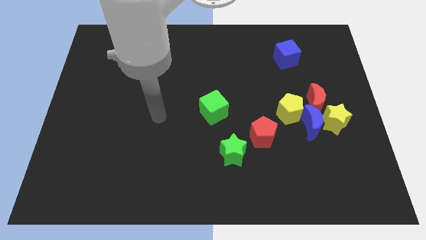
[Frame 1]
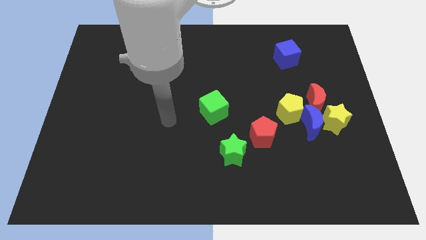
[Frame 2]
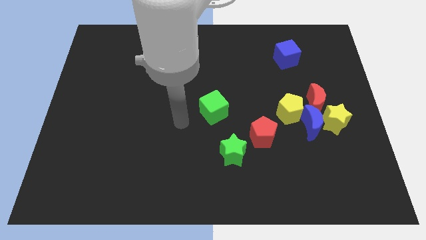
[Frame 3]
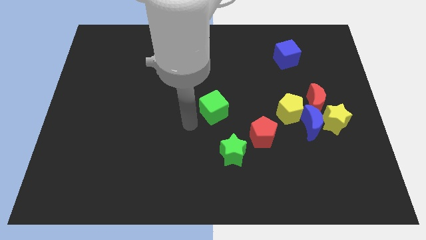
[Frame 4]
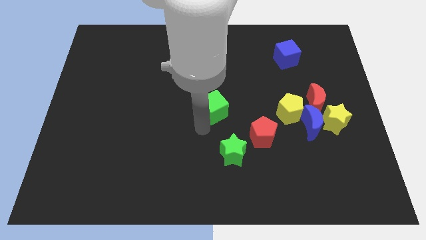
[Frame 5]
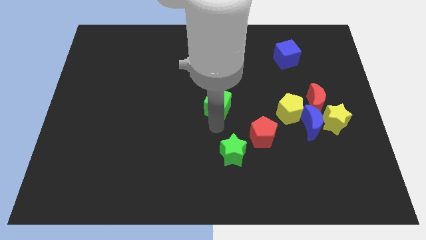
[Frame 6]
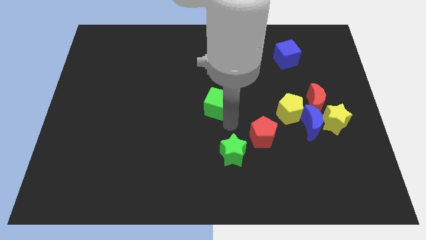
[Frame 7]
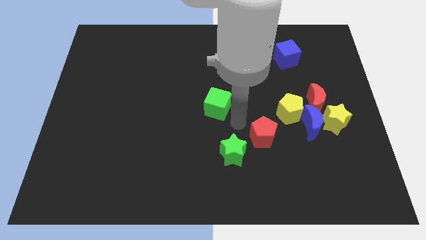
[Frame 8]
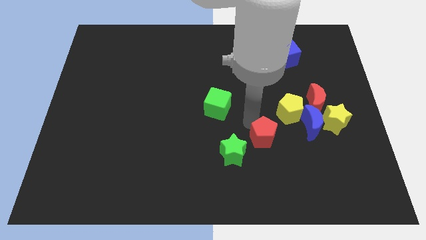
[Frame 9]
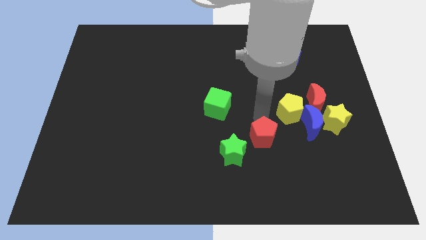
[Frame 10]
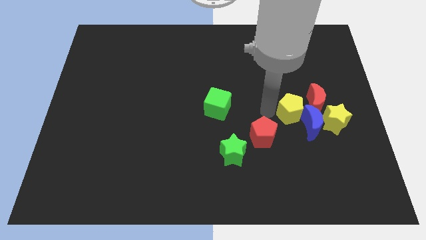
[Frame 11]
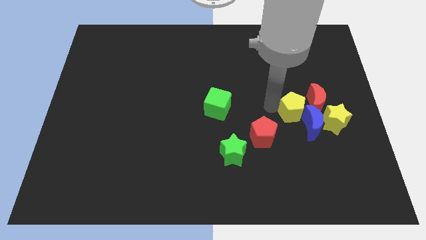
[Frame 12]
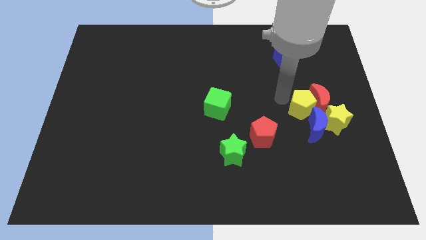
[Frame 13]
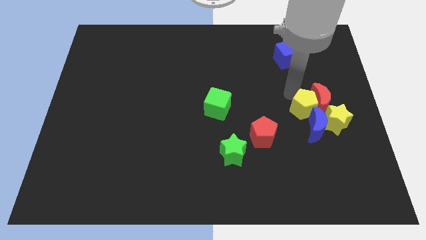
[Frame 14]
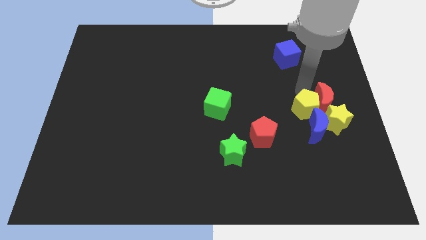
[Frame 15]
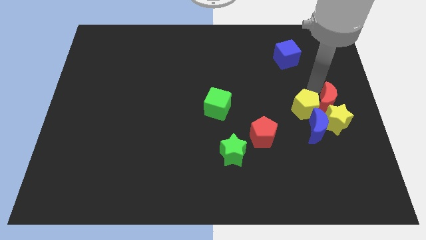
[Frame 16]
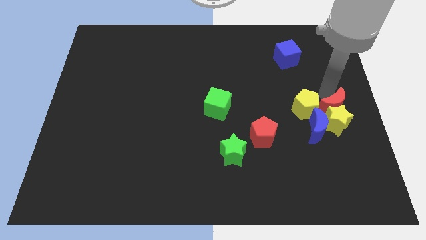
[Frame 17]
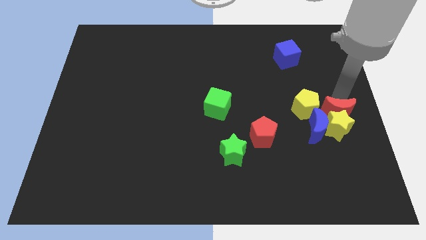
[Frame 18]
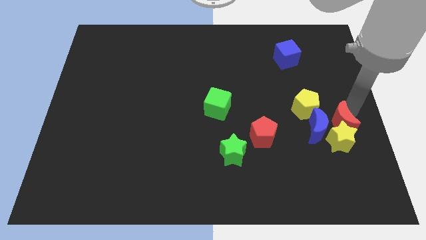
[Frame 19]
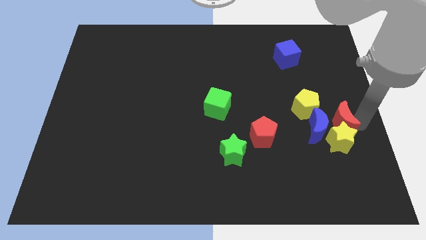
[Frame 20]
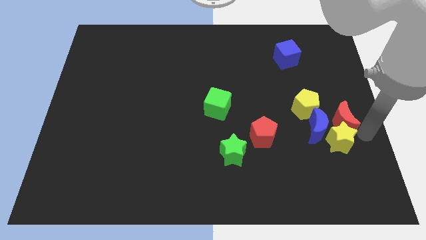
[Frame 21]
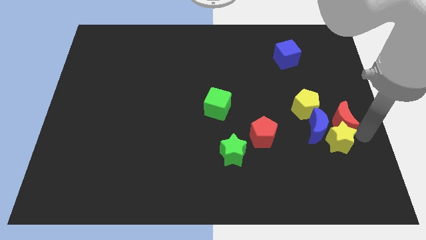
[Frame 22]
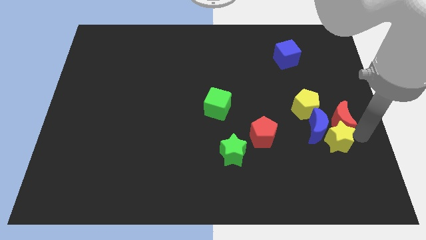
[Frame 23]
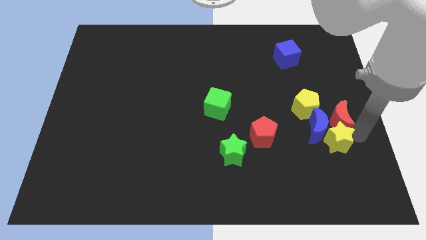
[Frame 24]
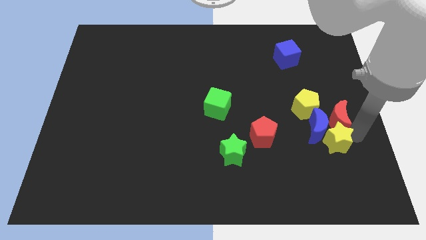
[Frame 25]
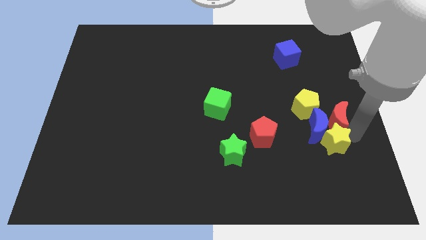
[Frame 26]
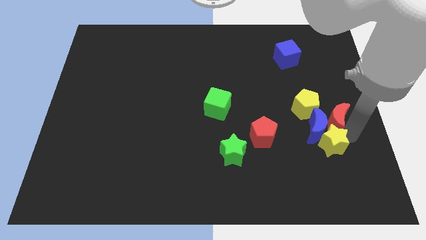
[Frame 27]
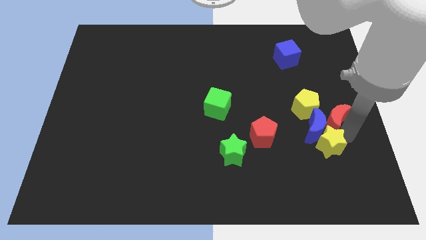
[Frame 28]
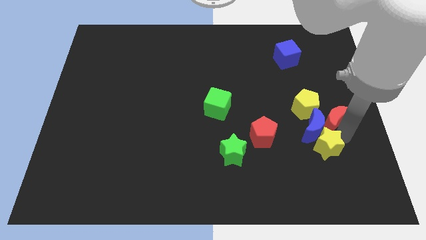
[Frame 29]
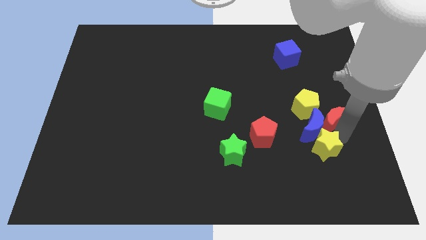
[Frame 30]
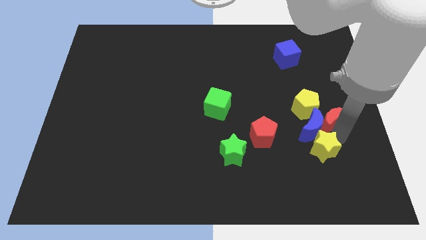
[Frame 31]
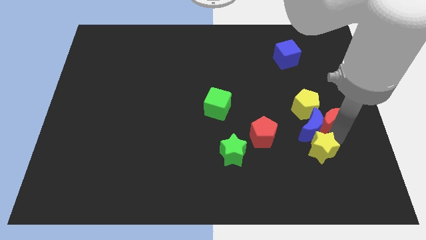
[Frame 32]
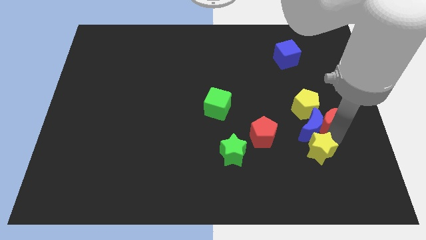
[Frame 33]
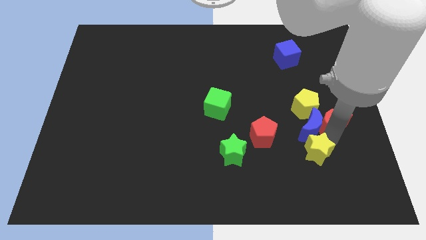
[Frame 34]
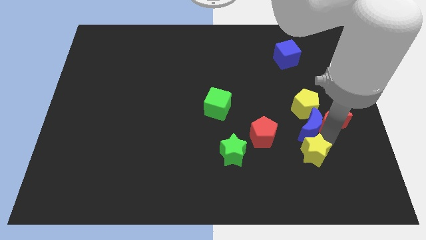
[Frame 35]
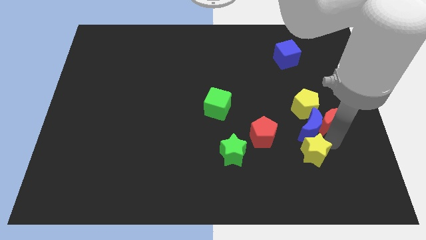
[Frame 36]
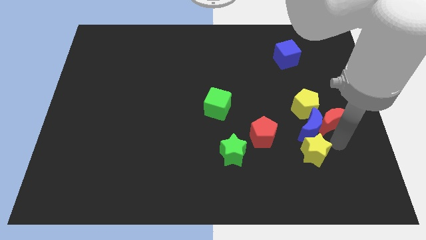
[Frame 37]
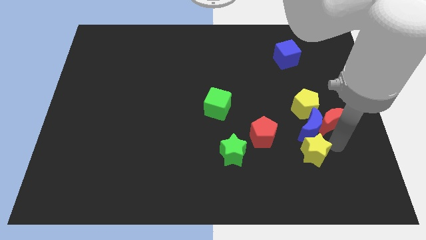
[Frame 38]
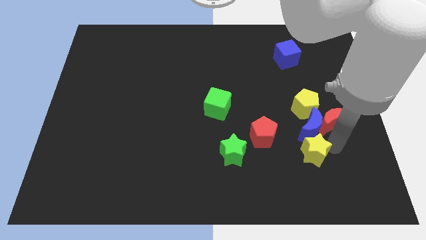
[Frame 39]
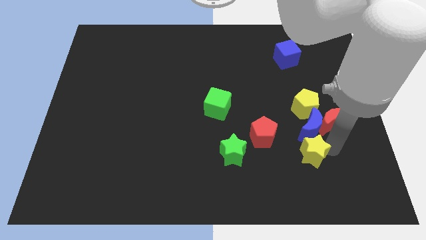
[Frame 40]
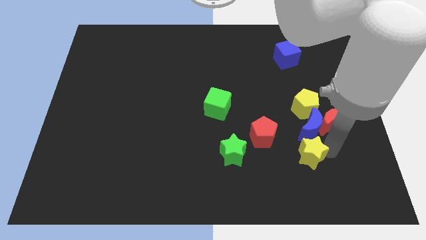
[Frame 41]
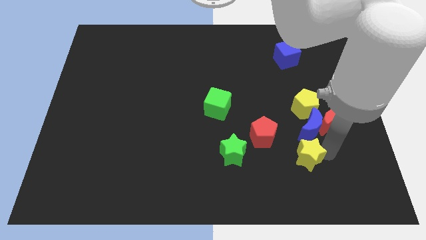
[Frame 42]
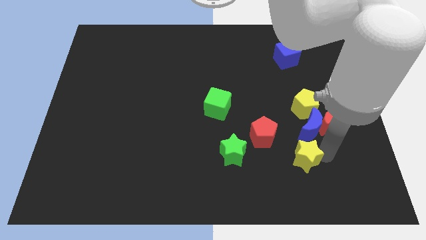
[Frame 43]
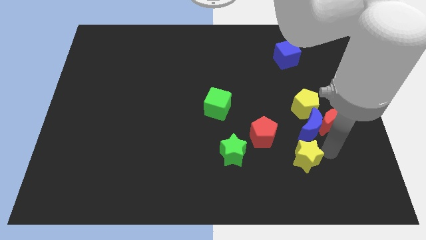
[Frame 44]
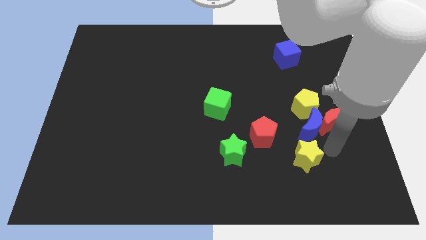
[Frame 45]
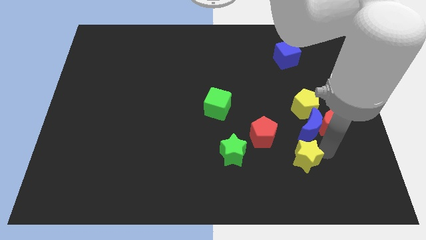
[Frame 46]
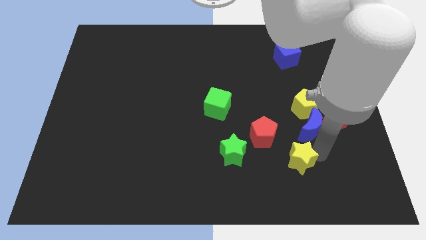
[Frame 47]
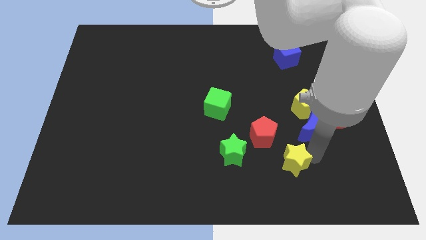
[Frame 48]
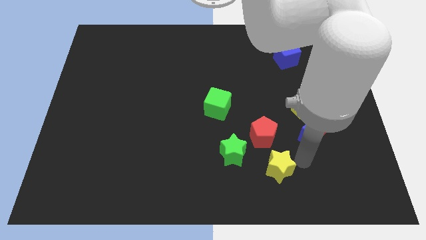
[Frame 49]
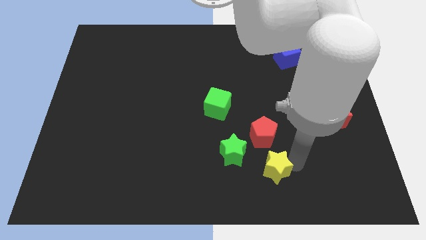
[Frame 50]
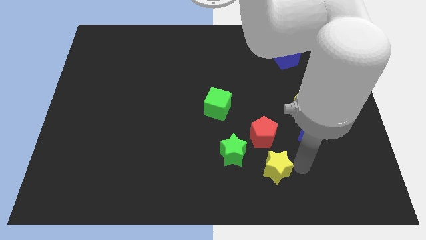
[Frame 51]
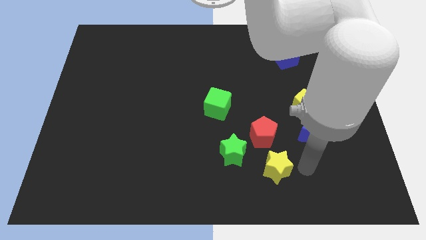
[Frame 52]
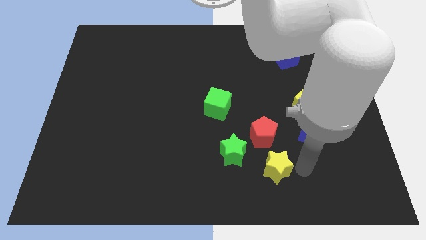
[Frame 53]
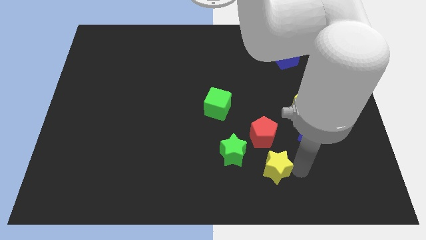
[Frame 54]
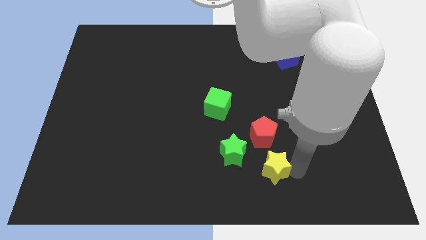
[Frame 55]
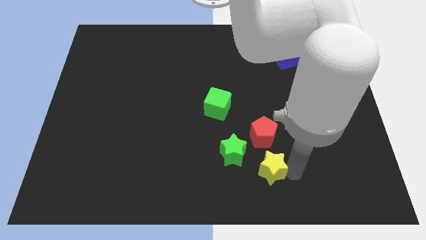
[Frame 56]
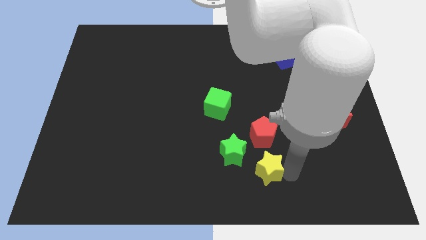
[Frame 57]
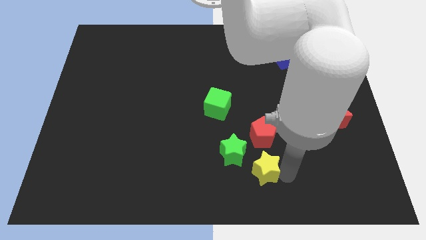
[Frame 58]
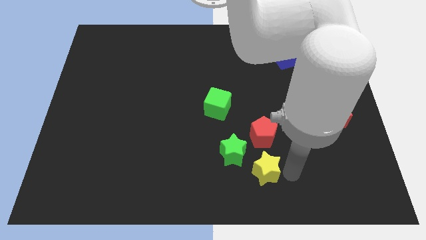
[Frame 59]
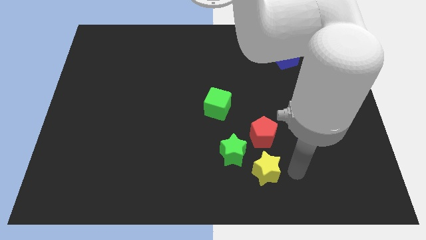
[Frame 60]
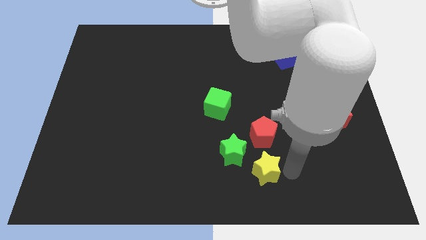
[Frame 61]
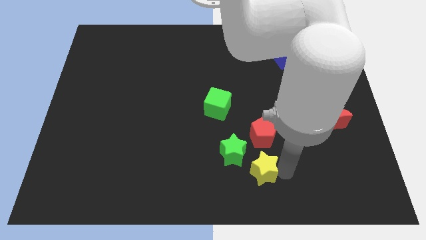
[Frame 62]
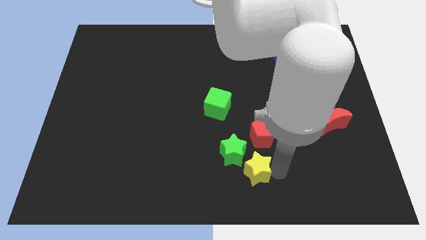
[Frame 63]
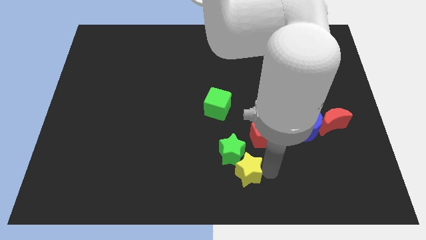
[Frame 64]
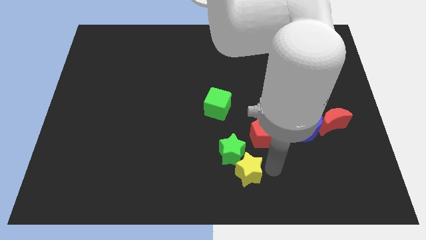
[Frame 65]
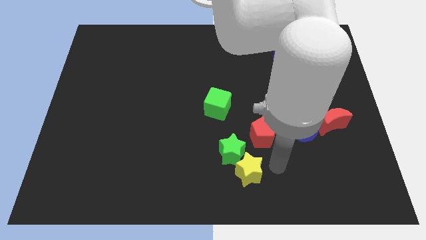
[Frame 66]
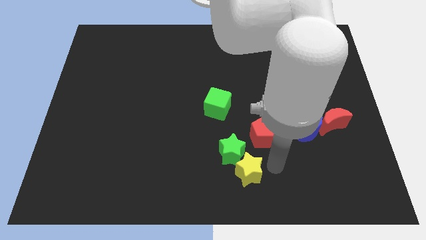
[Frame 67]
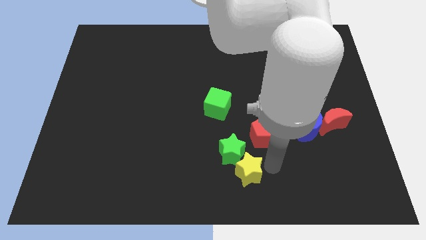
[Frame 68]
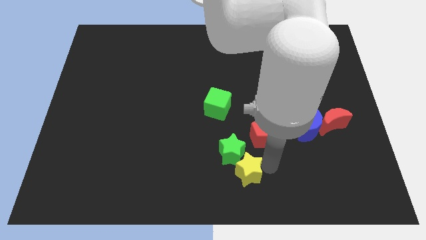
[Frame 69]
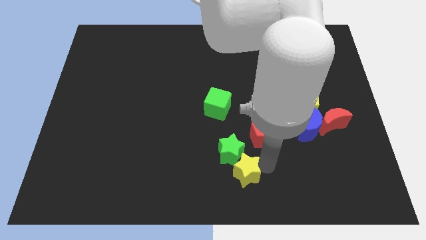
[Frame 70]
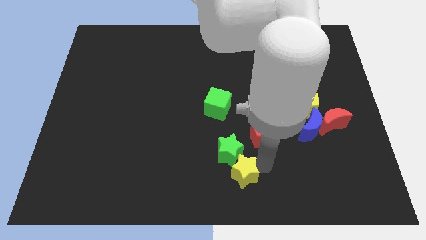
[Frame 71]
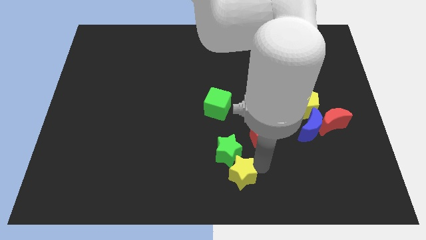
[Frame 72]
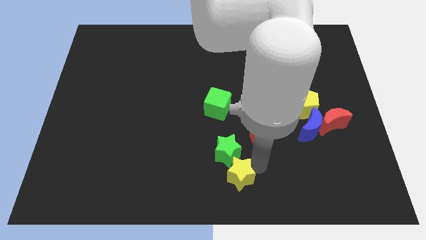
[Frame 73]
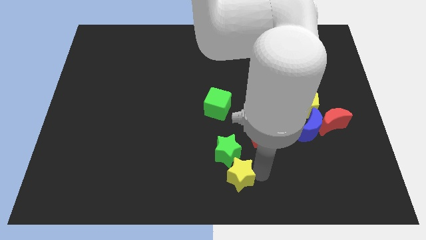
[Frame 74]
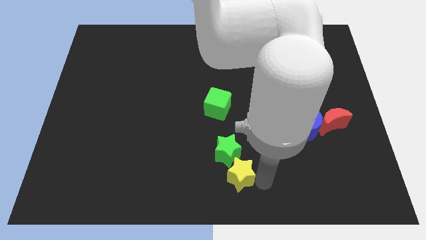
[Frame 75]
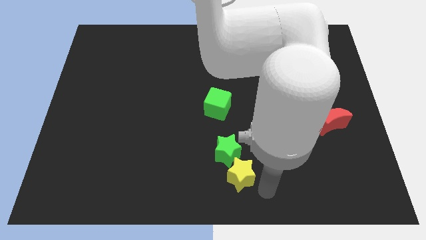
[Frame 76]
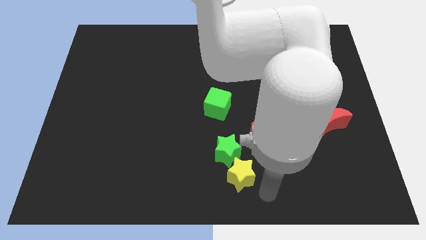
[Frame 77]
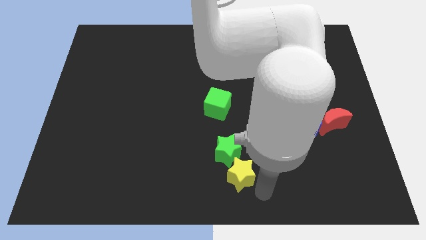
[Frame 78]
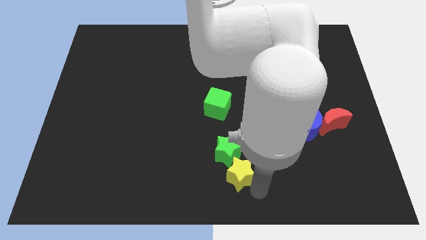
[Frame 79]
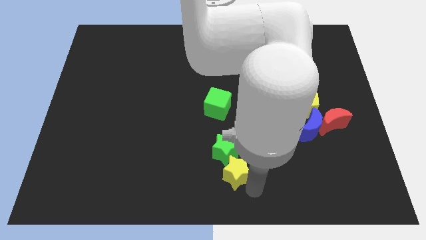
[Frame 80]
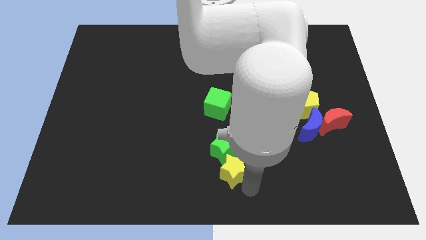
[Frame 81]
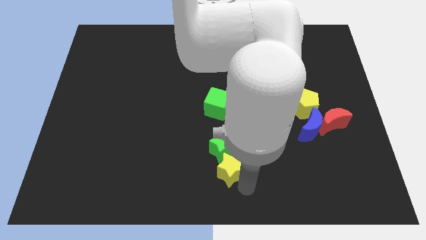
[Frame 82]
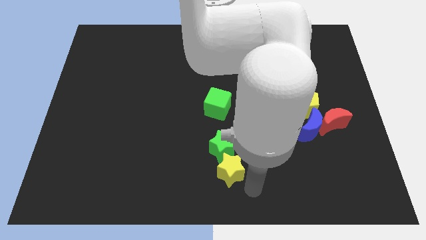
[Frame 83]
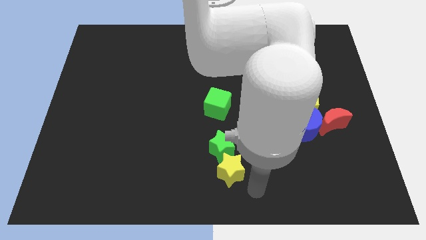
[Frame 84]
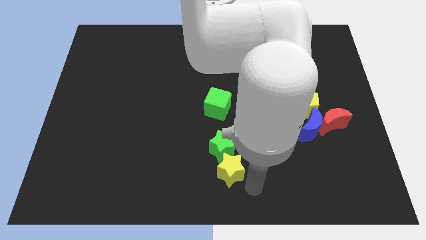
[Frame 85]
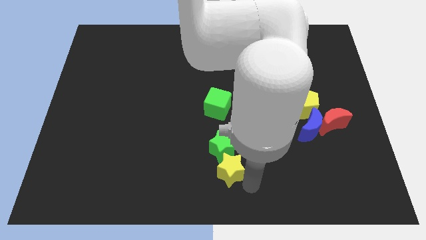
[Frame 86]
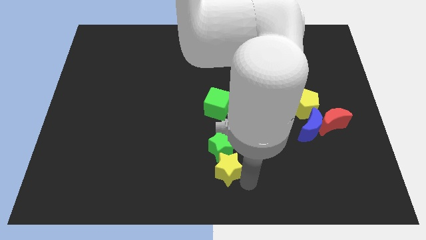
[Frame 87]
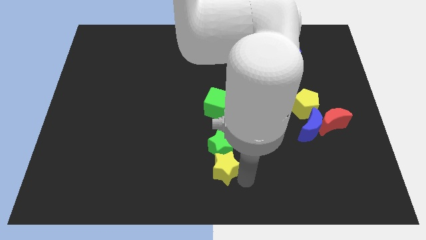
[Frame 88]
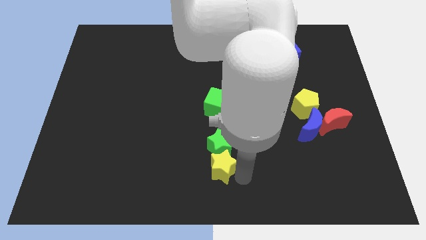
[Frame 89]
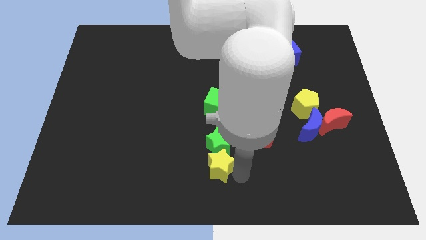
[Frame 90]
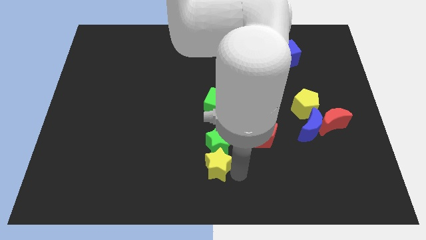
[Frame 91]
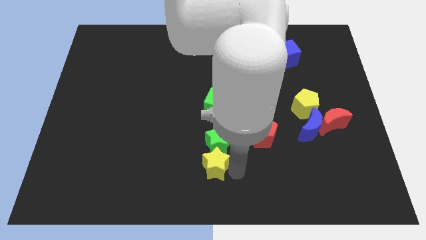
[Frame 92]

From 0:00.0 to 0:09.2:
push the yellow star to the left
